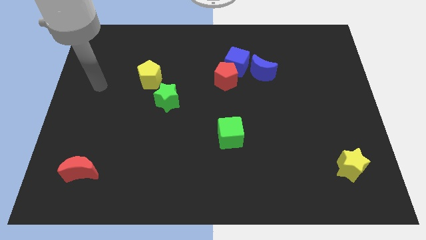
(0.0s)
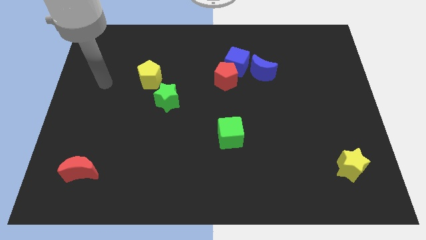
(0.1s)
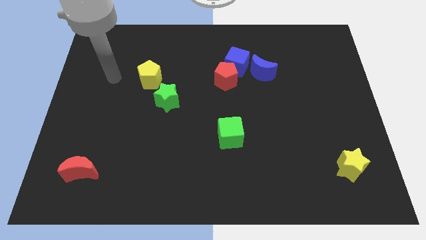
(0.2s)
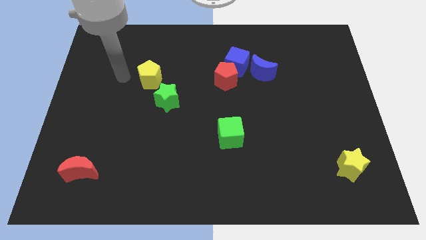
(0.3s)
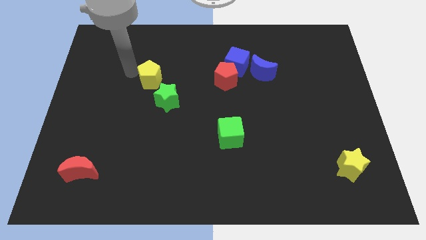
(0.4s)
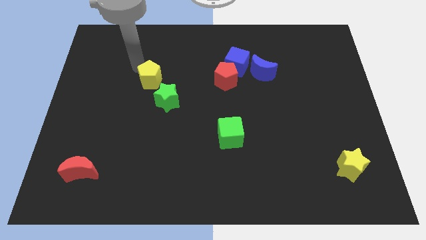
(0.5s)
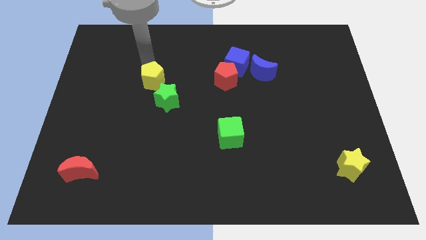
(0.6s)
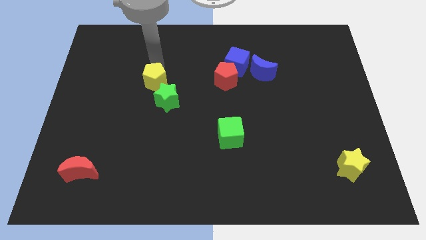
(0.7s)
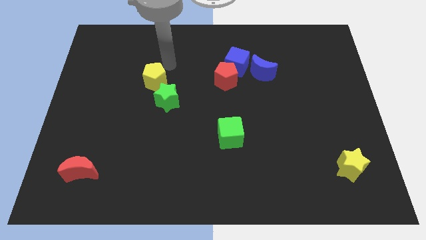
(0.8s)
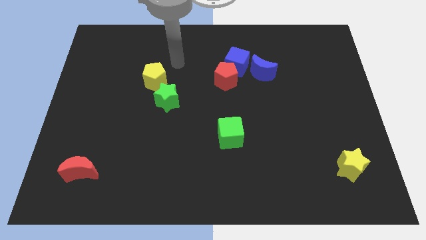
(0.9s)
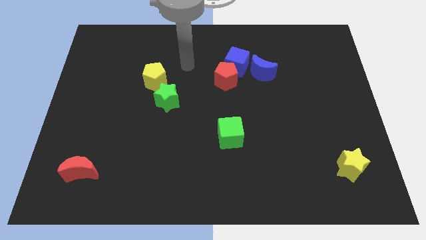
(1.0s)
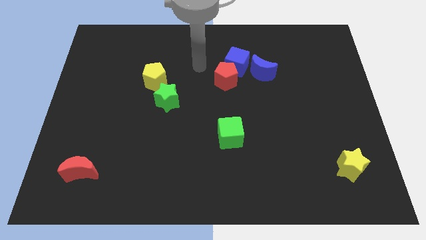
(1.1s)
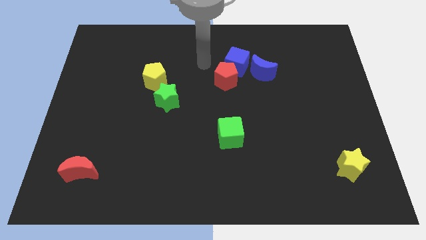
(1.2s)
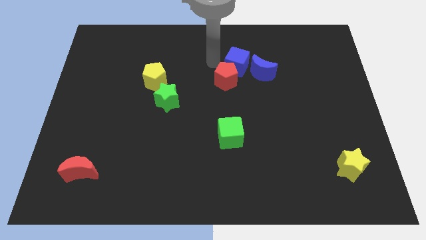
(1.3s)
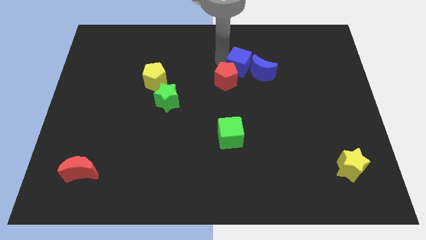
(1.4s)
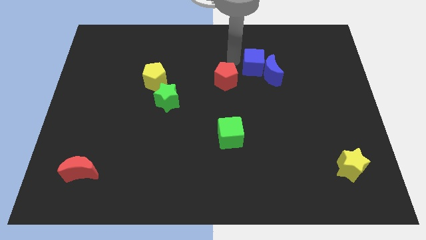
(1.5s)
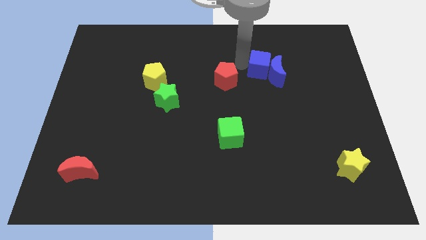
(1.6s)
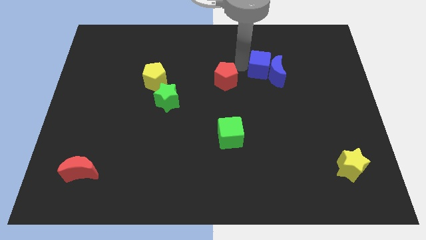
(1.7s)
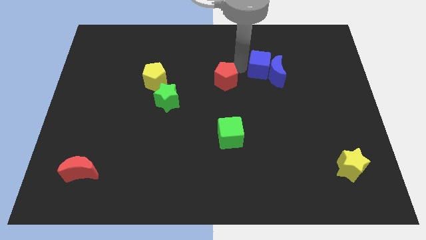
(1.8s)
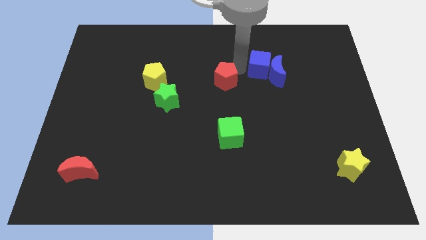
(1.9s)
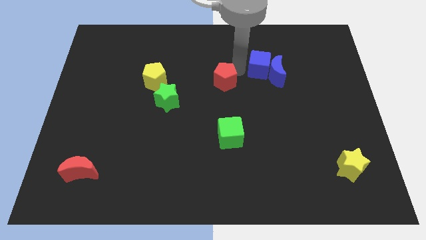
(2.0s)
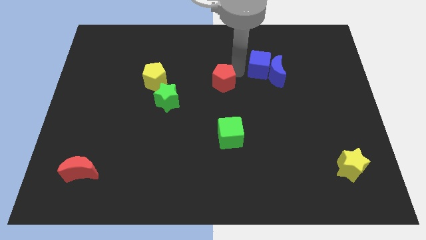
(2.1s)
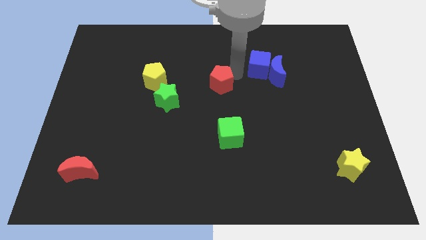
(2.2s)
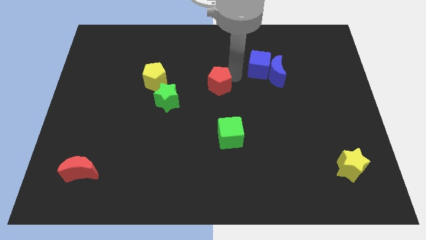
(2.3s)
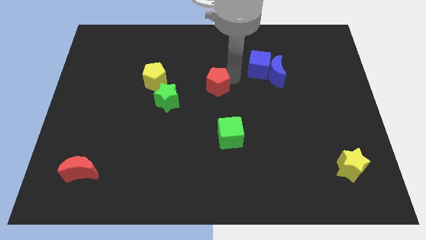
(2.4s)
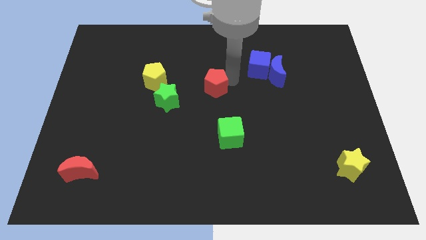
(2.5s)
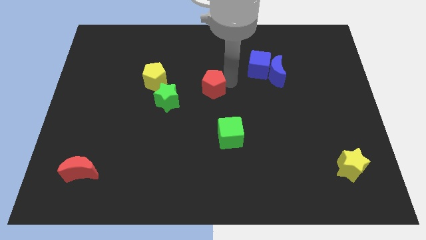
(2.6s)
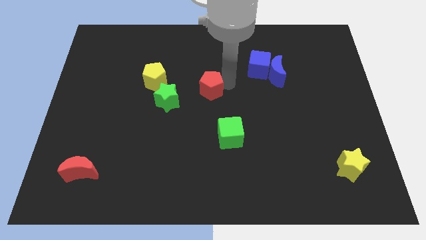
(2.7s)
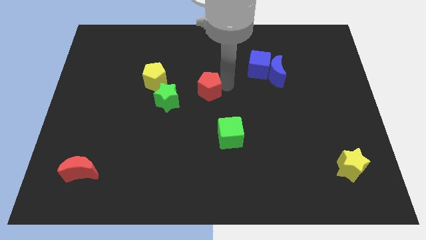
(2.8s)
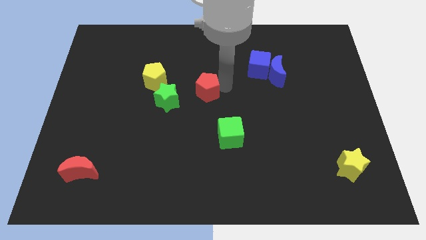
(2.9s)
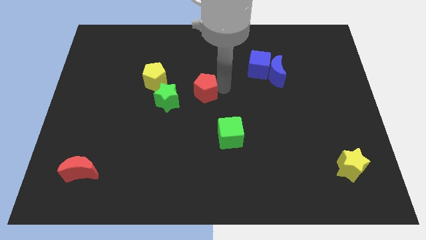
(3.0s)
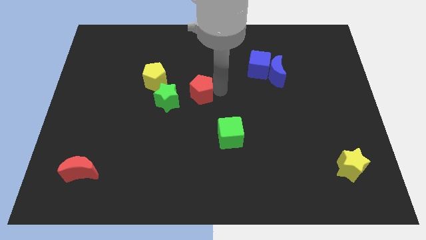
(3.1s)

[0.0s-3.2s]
move the red pentagon a little bit diagonally down and left

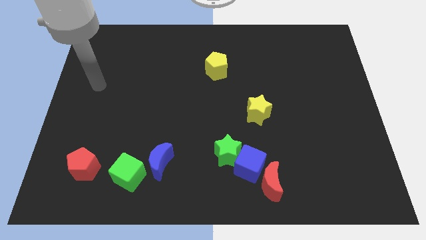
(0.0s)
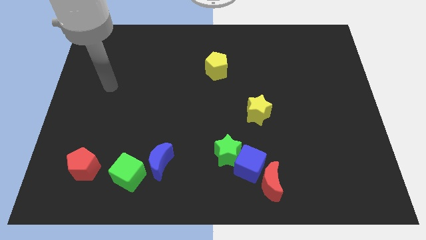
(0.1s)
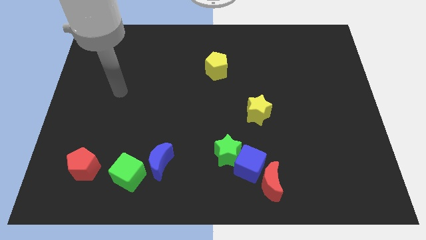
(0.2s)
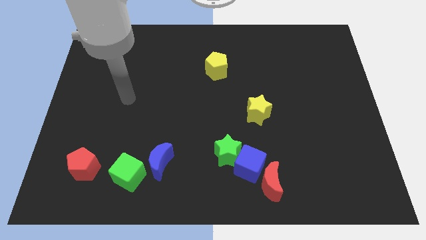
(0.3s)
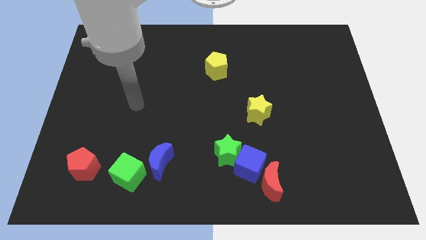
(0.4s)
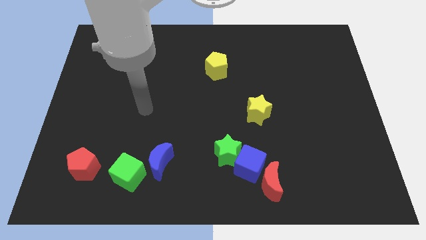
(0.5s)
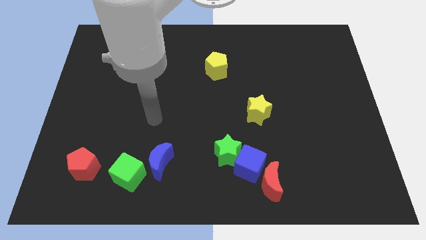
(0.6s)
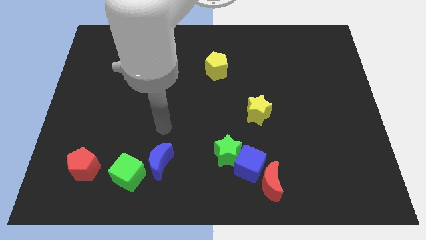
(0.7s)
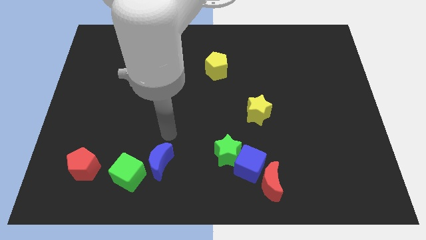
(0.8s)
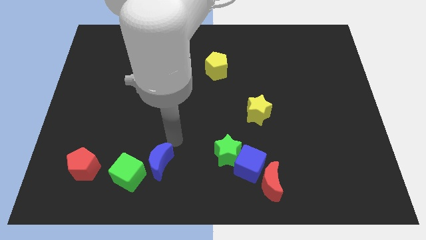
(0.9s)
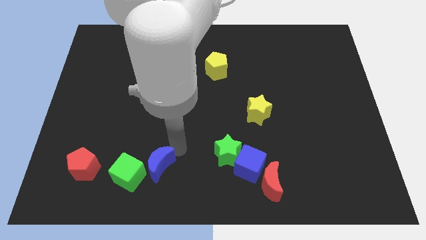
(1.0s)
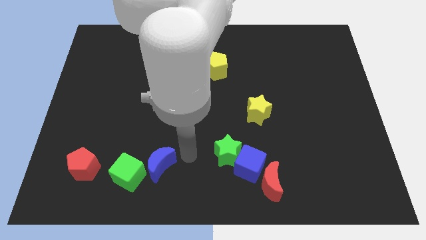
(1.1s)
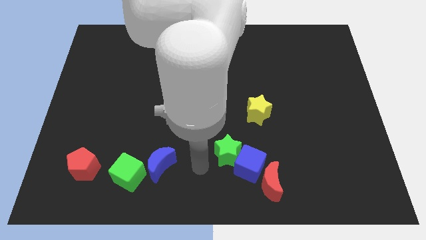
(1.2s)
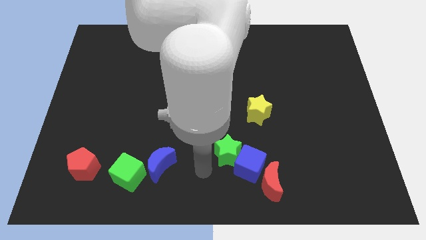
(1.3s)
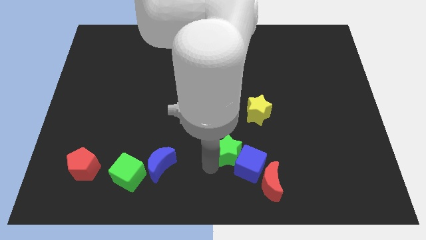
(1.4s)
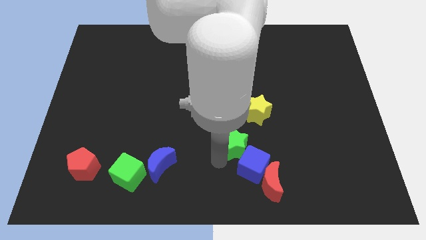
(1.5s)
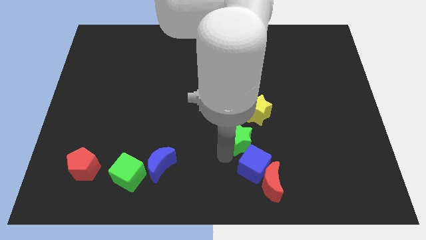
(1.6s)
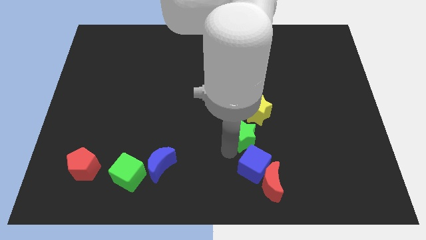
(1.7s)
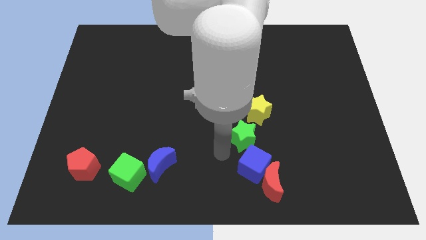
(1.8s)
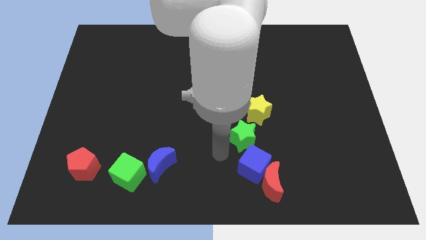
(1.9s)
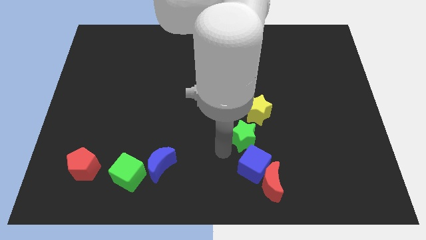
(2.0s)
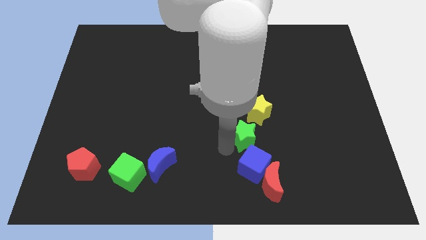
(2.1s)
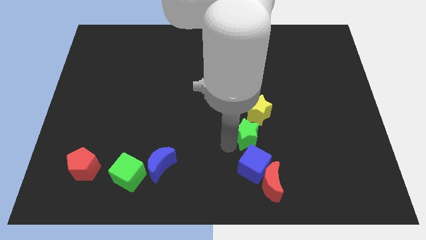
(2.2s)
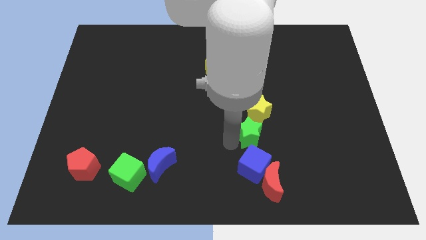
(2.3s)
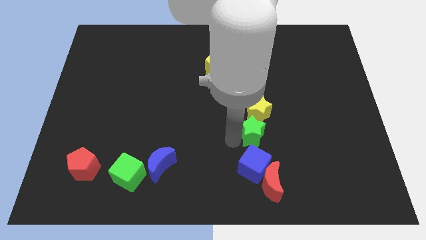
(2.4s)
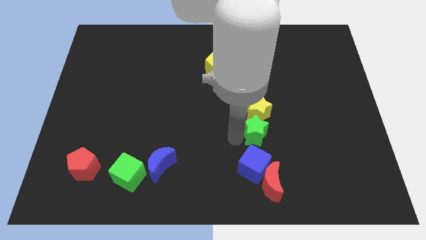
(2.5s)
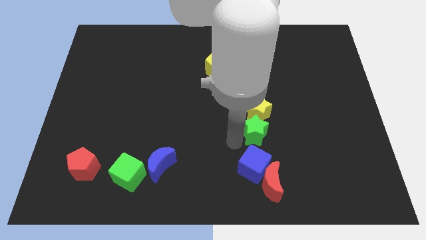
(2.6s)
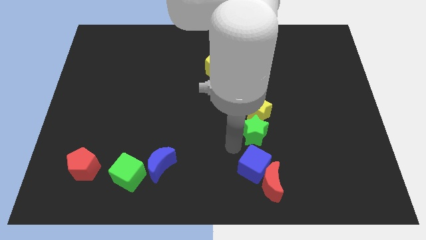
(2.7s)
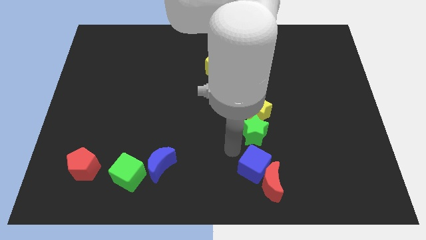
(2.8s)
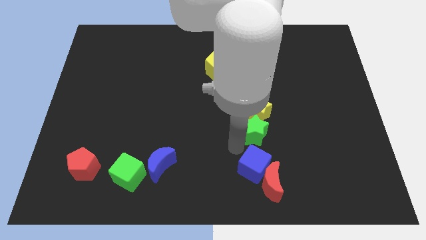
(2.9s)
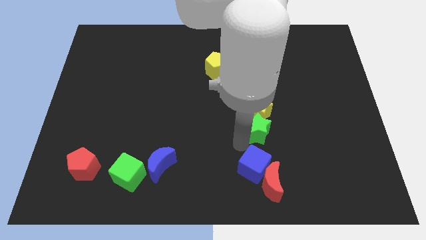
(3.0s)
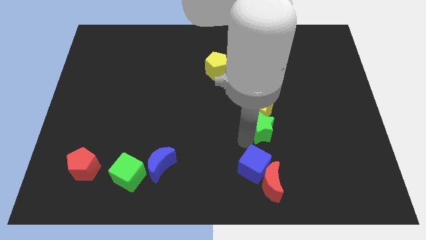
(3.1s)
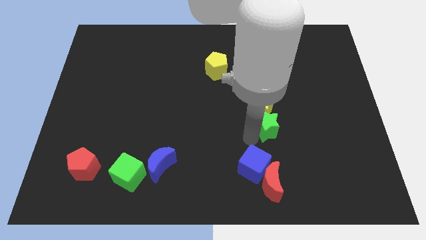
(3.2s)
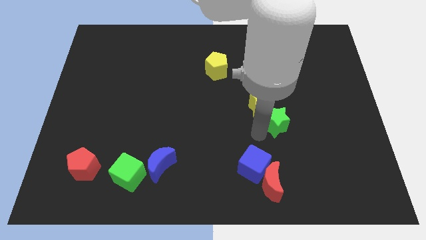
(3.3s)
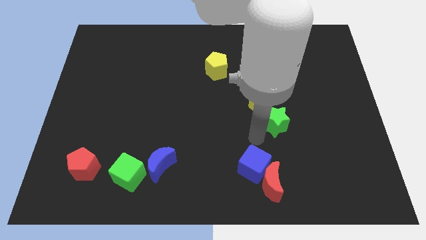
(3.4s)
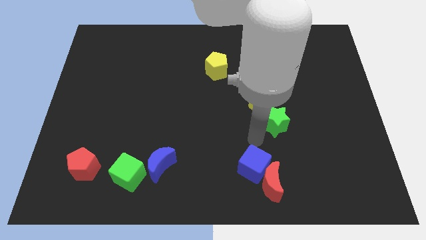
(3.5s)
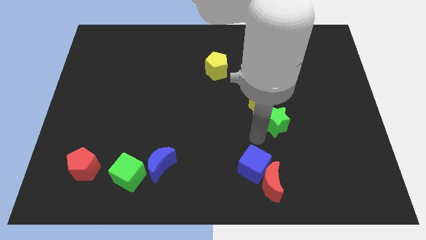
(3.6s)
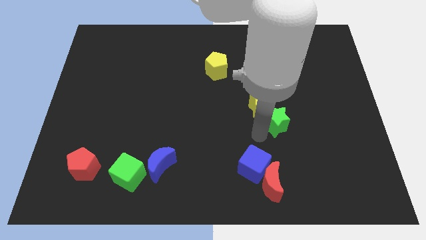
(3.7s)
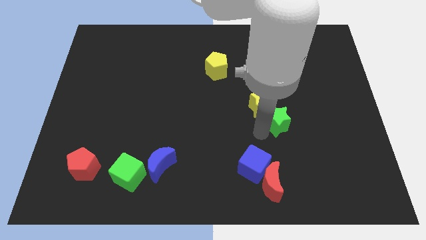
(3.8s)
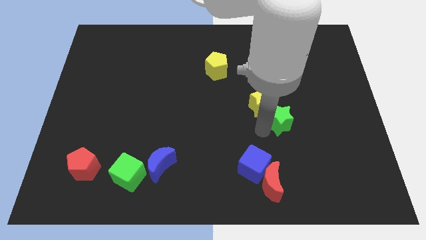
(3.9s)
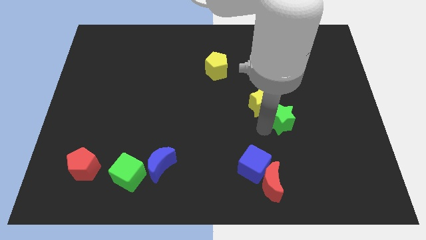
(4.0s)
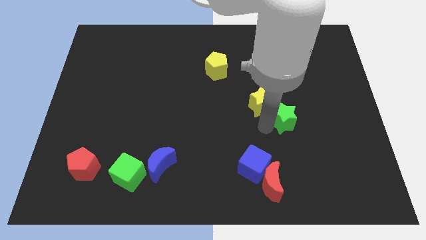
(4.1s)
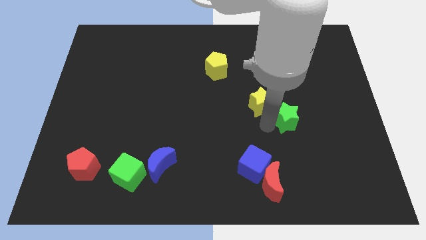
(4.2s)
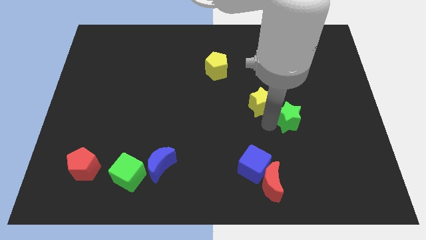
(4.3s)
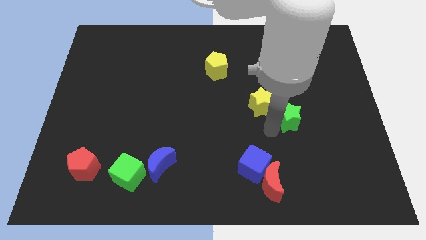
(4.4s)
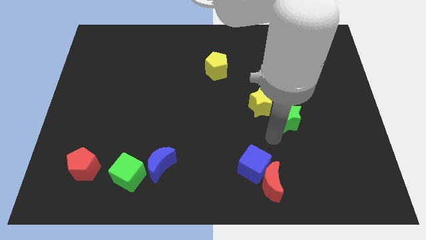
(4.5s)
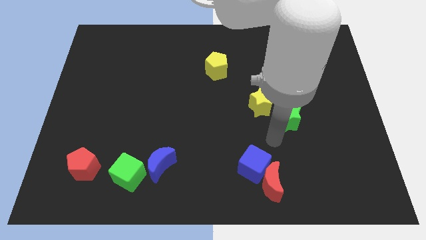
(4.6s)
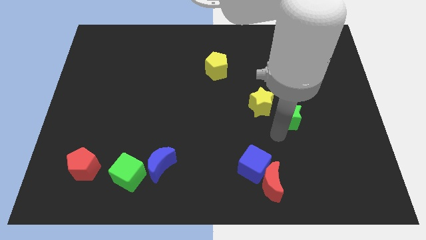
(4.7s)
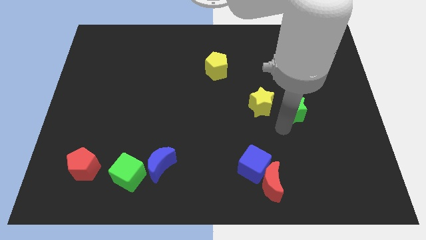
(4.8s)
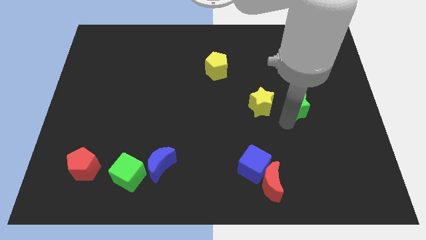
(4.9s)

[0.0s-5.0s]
move the green star up and to the right
